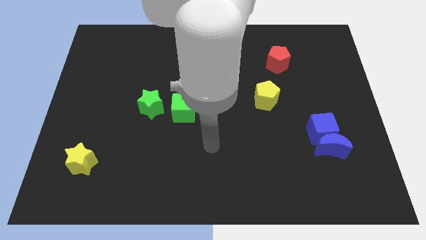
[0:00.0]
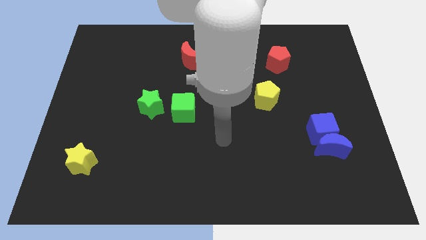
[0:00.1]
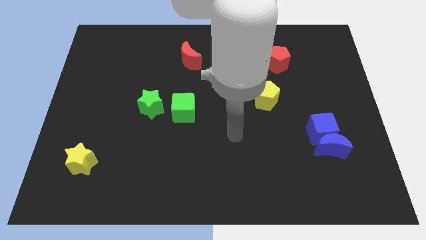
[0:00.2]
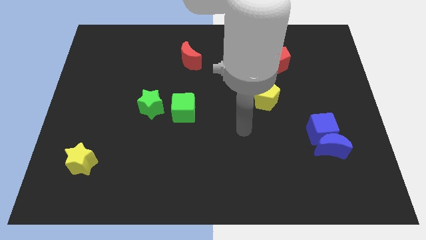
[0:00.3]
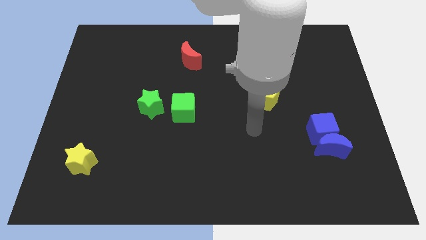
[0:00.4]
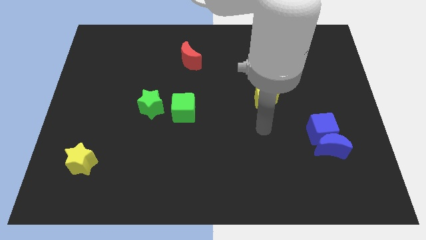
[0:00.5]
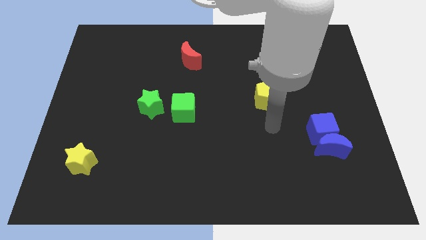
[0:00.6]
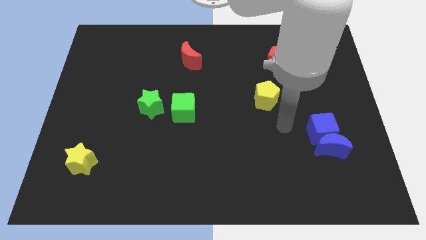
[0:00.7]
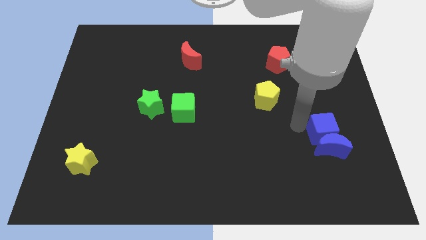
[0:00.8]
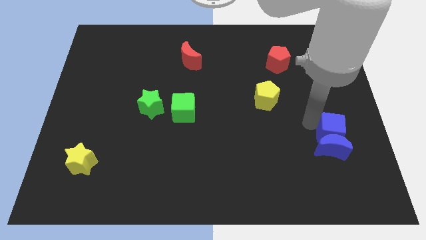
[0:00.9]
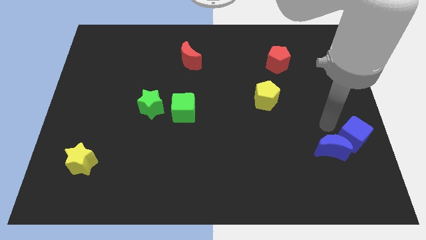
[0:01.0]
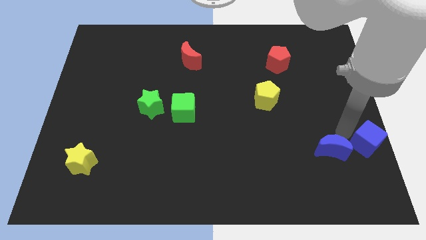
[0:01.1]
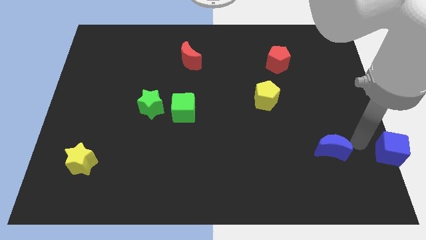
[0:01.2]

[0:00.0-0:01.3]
pull the blue moon apart from the blue cube

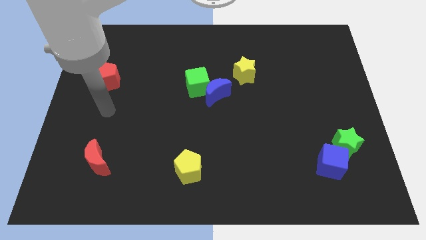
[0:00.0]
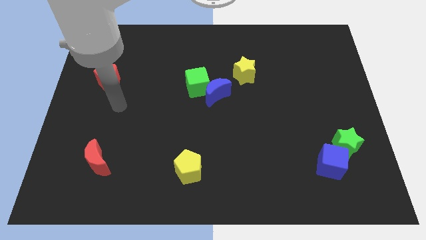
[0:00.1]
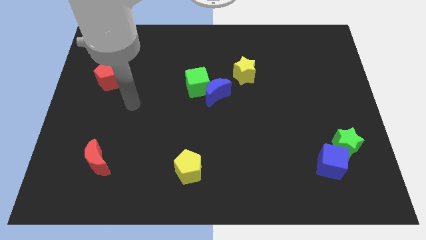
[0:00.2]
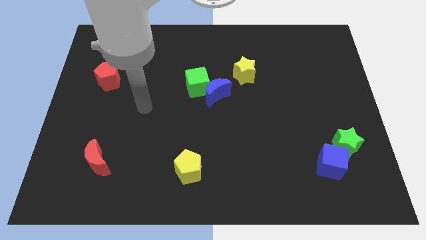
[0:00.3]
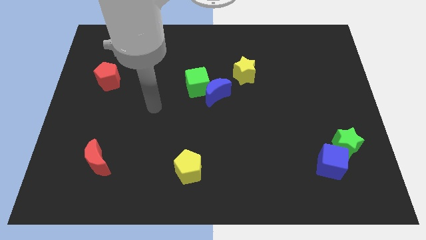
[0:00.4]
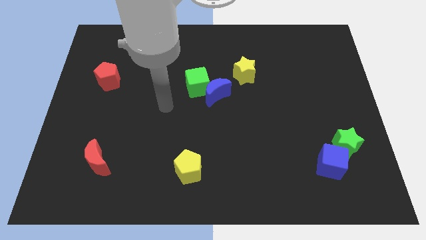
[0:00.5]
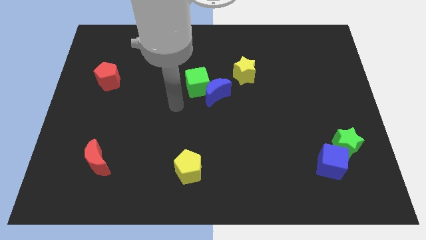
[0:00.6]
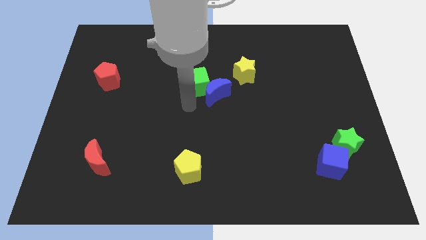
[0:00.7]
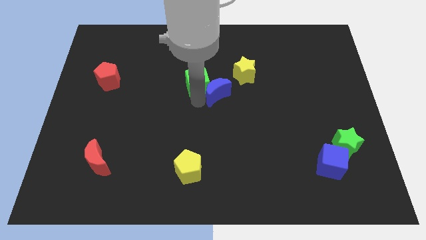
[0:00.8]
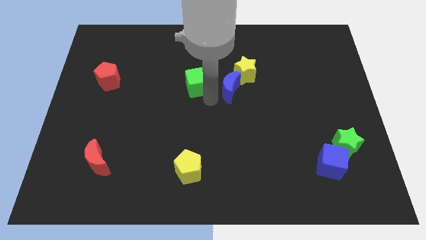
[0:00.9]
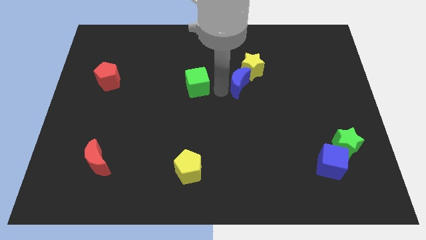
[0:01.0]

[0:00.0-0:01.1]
move the green cube away from the blue moon

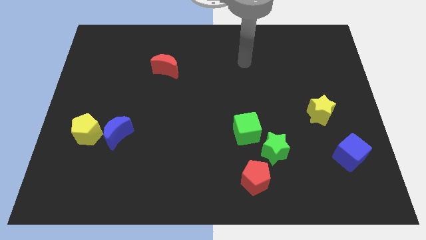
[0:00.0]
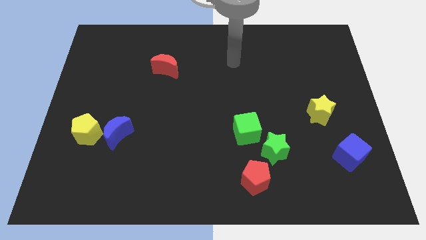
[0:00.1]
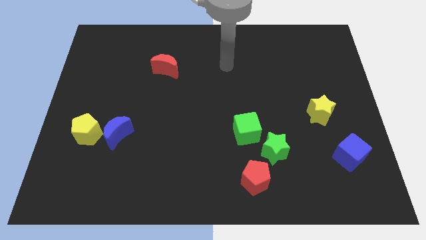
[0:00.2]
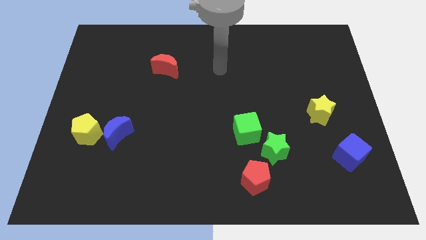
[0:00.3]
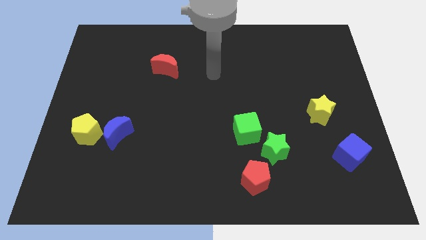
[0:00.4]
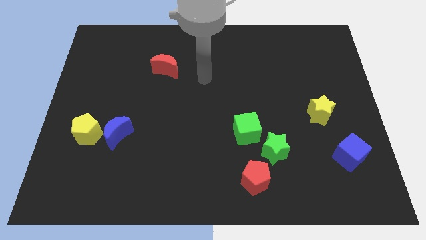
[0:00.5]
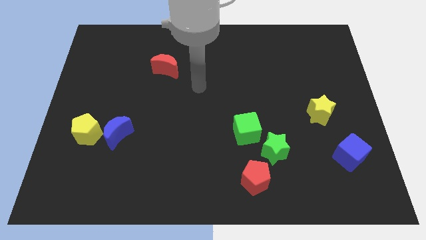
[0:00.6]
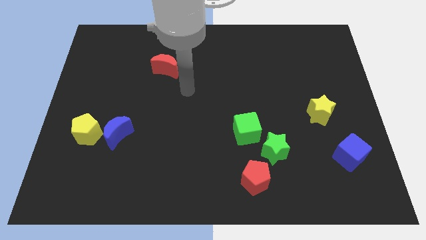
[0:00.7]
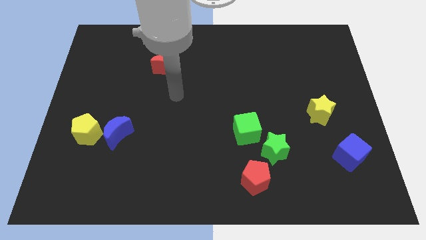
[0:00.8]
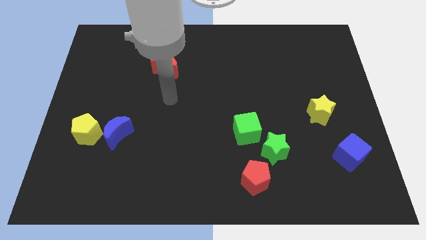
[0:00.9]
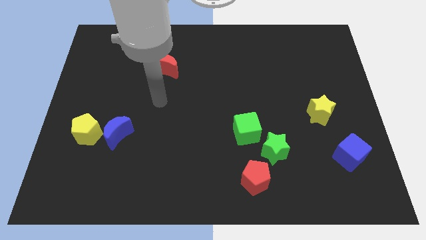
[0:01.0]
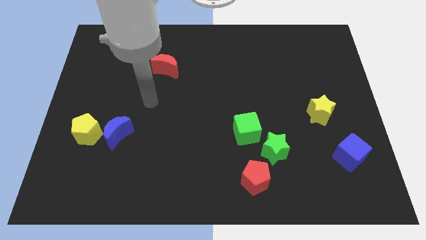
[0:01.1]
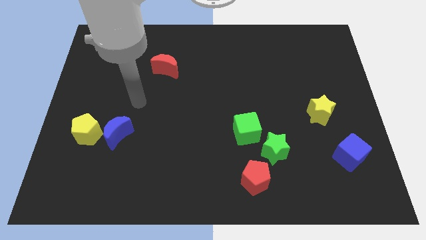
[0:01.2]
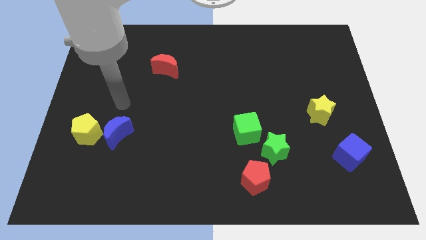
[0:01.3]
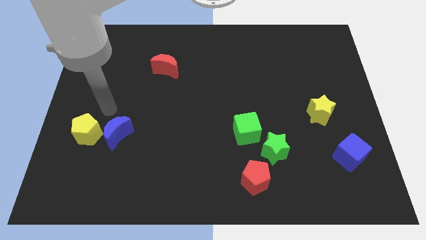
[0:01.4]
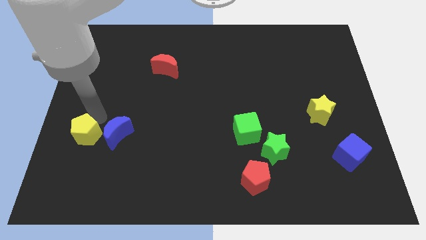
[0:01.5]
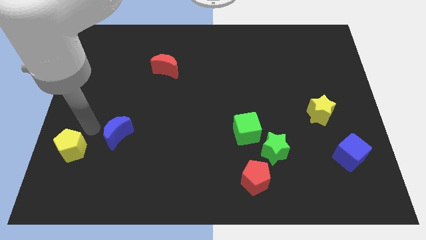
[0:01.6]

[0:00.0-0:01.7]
pull the blue moon apart from the yellow pentagon

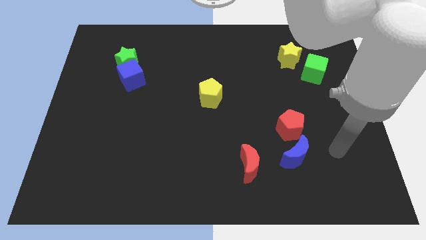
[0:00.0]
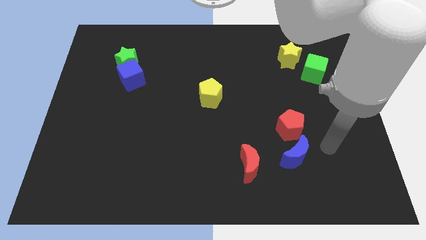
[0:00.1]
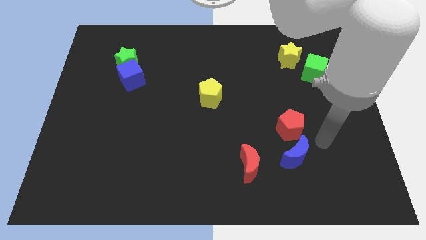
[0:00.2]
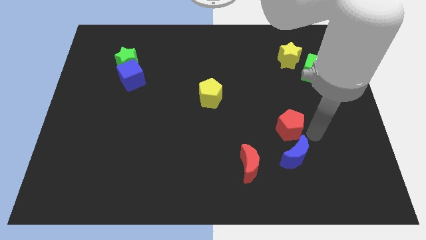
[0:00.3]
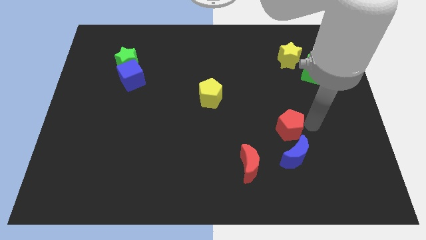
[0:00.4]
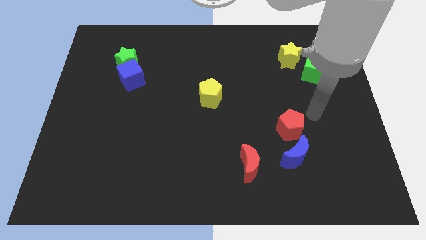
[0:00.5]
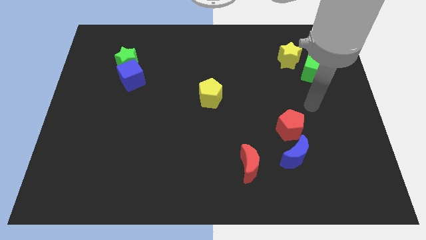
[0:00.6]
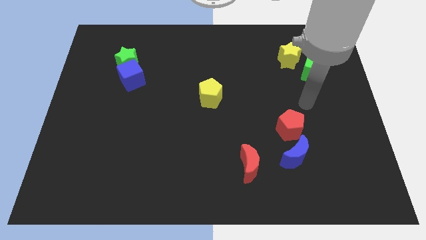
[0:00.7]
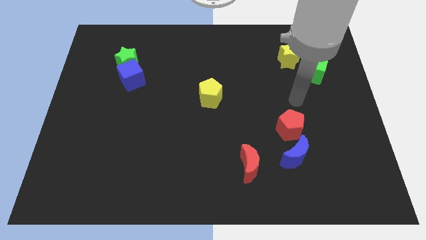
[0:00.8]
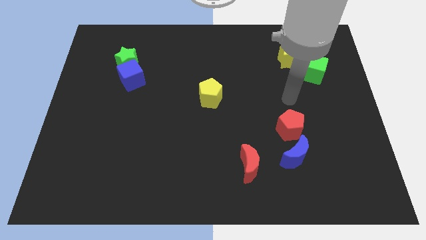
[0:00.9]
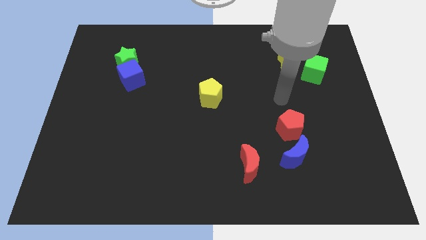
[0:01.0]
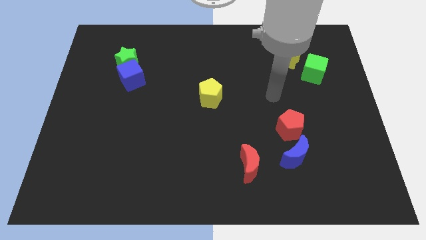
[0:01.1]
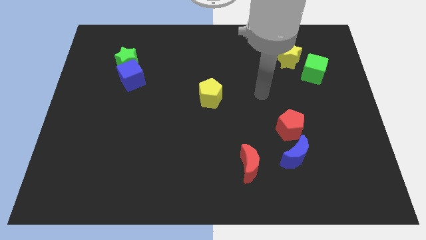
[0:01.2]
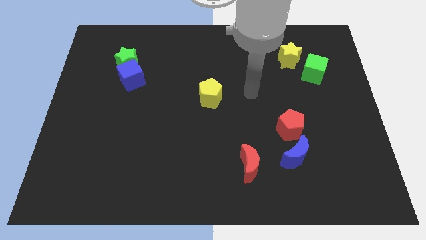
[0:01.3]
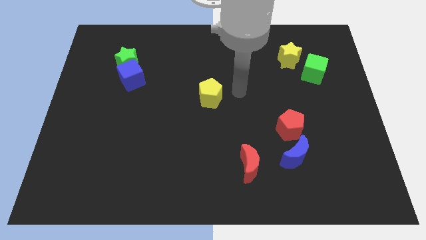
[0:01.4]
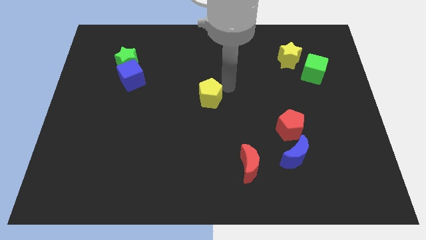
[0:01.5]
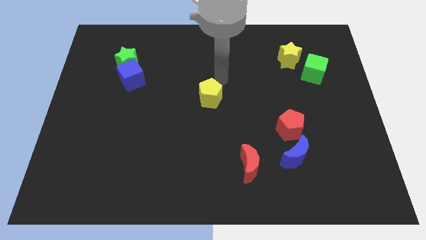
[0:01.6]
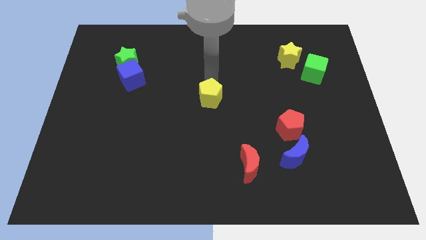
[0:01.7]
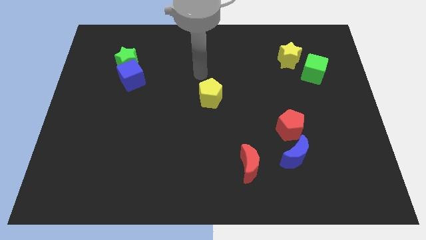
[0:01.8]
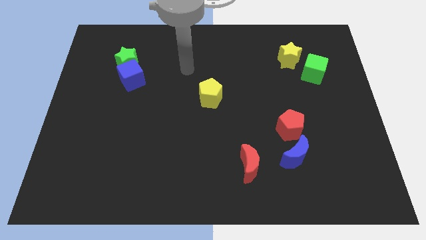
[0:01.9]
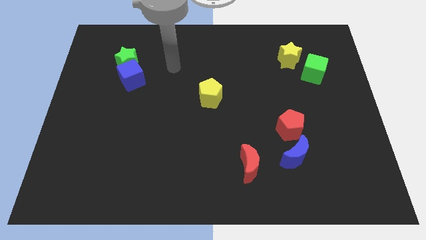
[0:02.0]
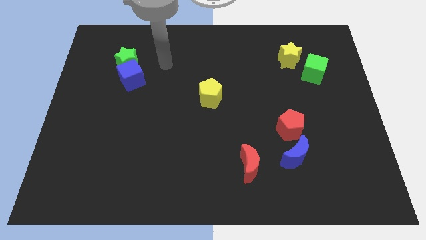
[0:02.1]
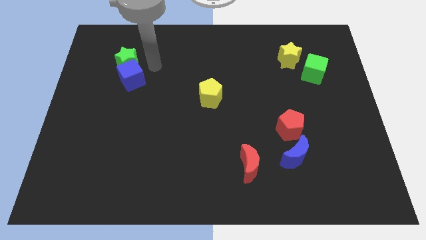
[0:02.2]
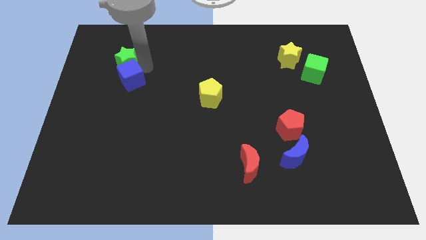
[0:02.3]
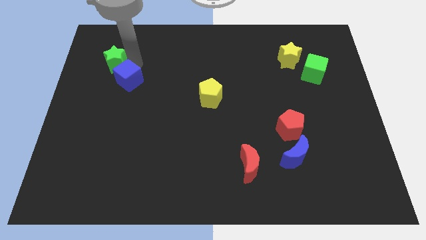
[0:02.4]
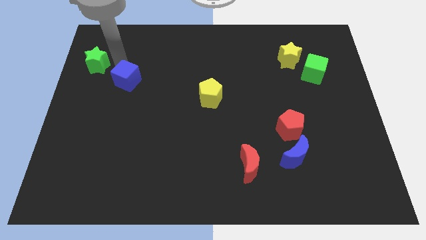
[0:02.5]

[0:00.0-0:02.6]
separate the blue cube from the green star

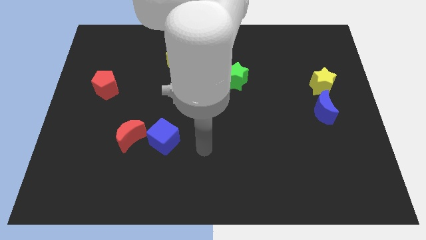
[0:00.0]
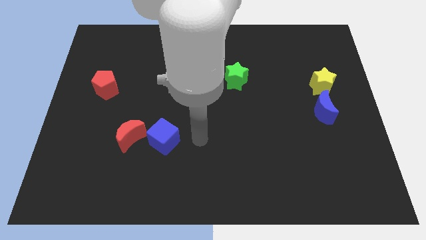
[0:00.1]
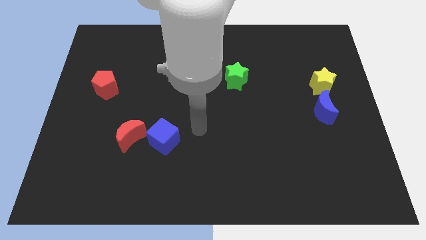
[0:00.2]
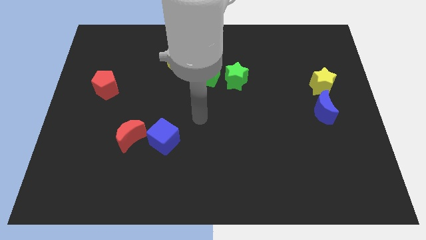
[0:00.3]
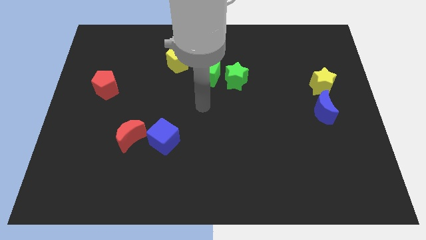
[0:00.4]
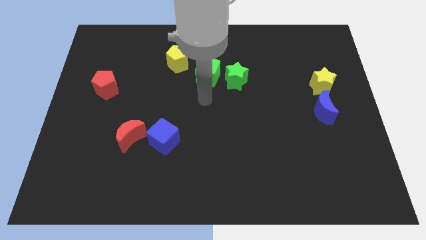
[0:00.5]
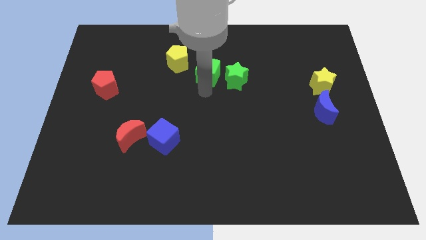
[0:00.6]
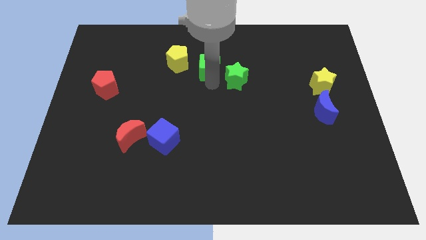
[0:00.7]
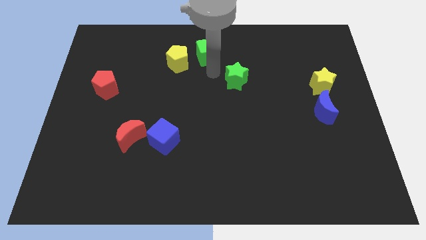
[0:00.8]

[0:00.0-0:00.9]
move the green star away from the green cube

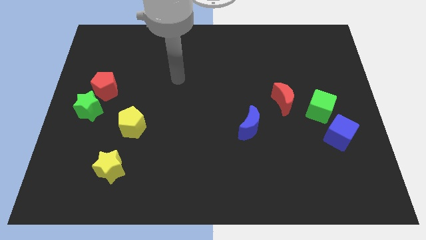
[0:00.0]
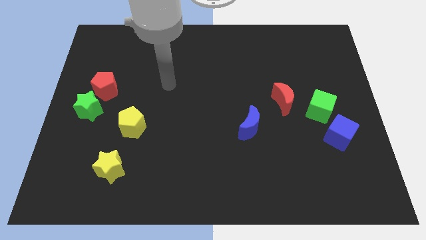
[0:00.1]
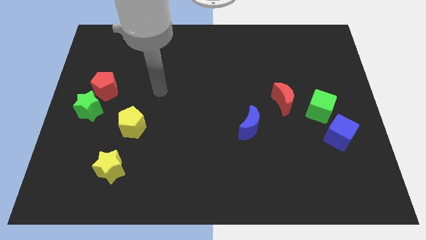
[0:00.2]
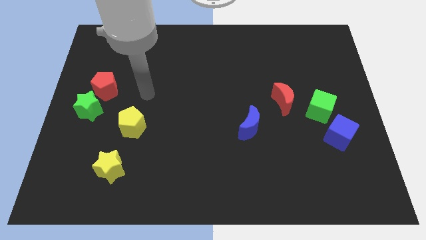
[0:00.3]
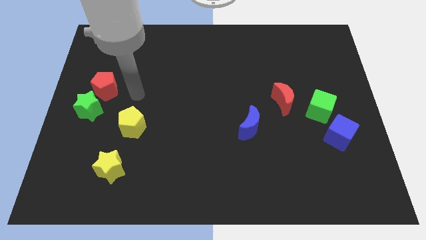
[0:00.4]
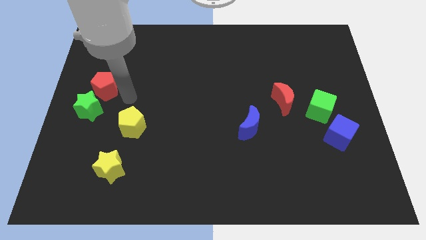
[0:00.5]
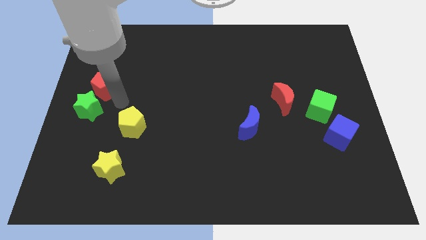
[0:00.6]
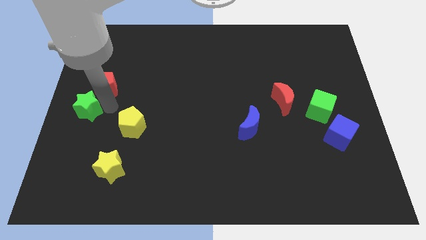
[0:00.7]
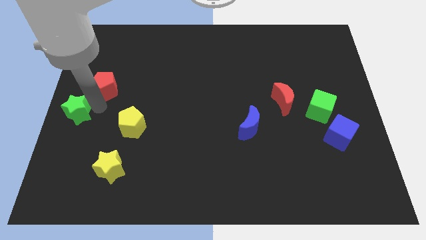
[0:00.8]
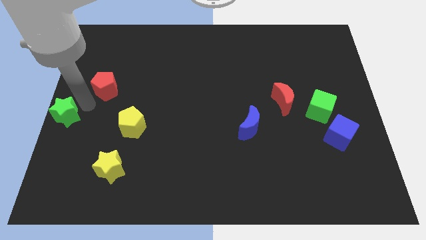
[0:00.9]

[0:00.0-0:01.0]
move the red pentagon away from the green star

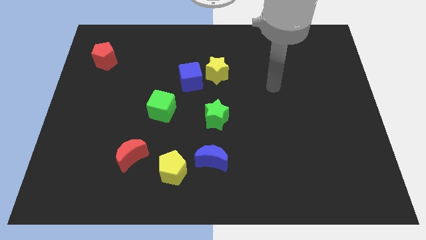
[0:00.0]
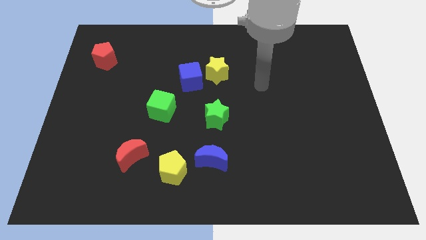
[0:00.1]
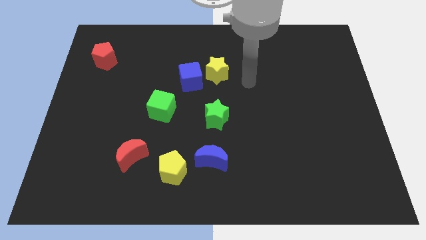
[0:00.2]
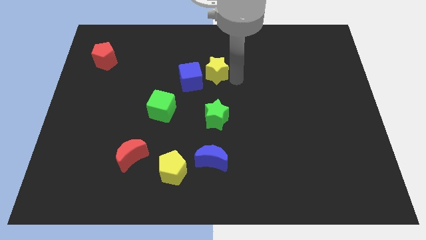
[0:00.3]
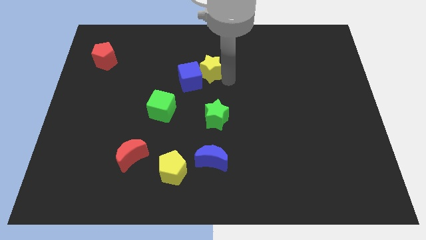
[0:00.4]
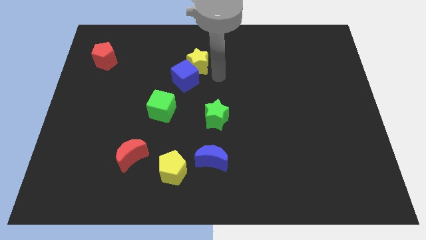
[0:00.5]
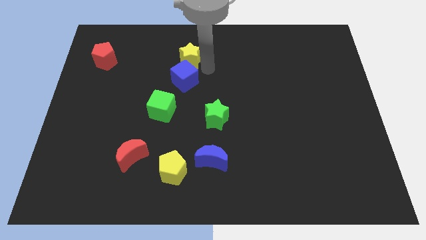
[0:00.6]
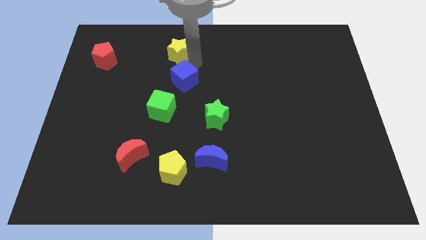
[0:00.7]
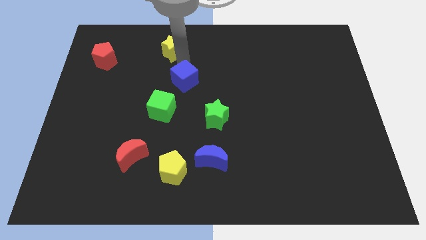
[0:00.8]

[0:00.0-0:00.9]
separate the blue cube from the yellow star

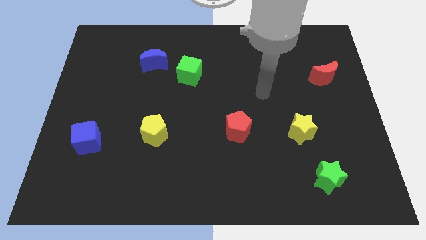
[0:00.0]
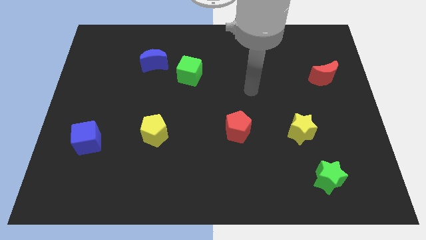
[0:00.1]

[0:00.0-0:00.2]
separate the blue moon from the green cube
